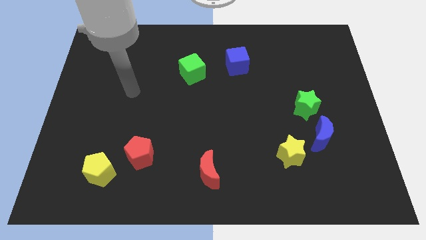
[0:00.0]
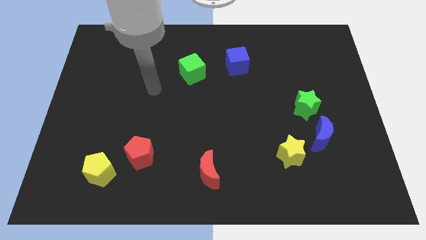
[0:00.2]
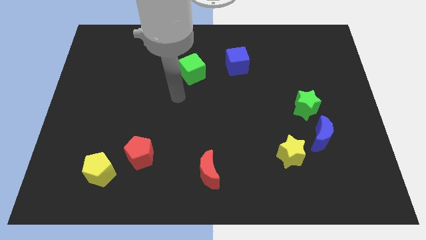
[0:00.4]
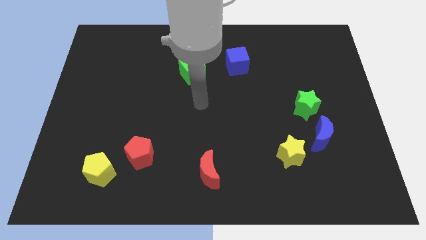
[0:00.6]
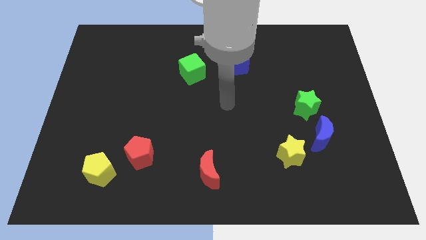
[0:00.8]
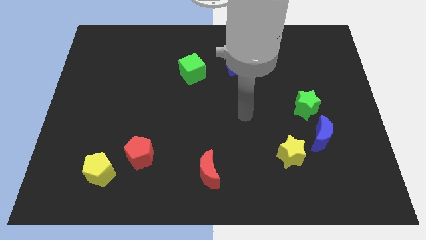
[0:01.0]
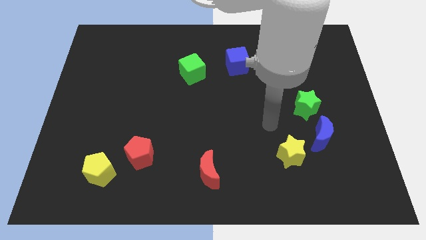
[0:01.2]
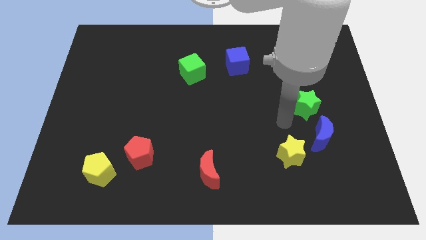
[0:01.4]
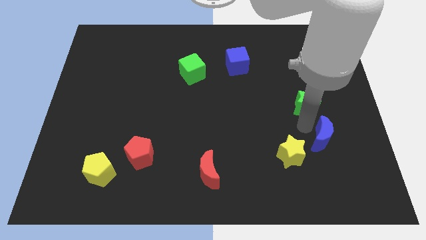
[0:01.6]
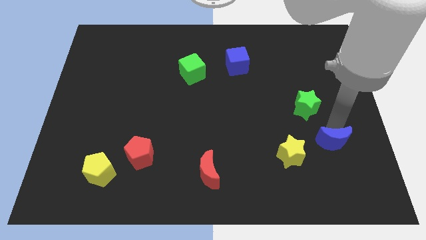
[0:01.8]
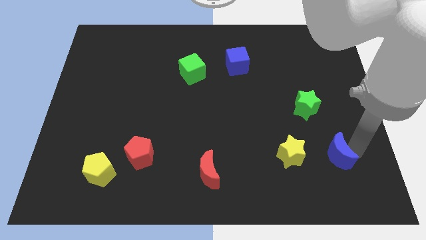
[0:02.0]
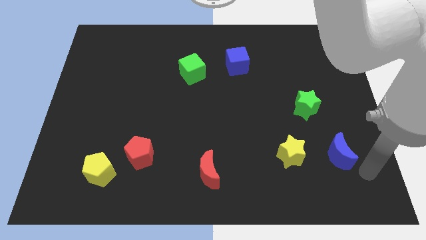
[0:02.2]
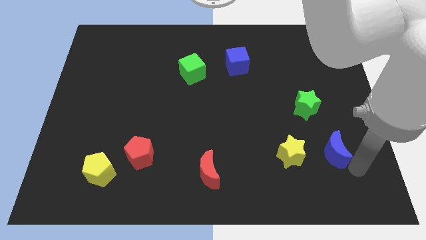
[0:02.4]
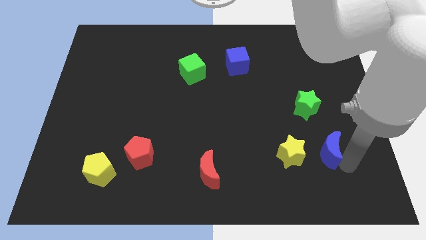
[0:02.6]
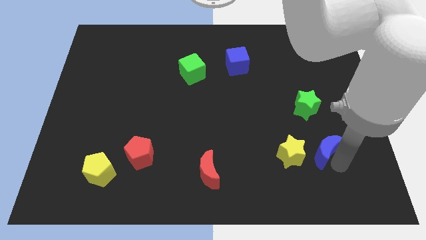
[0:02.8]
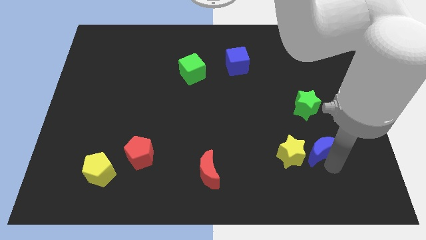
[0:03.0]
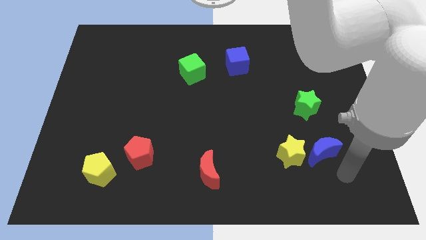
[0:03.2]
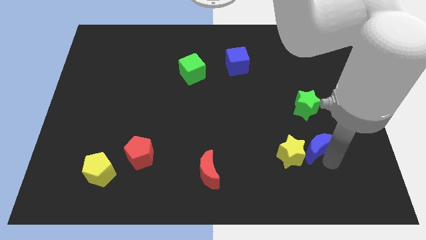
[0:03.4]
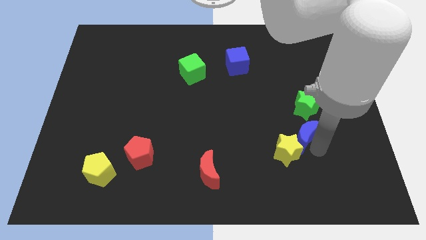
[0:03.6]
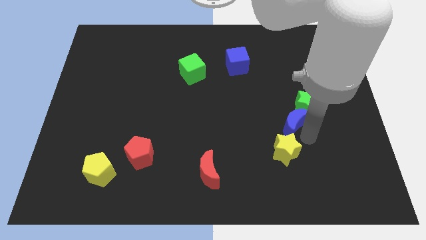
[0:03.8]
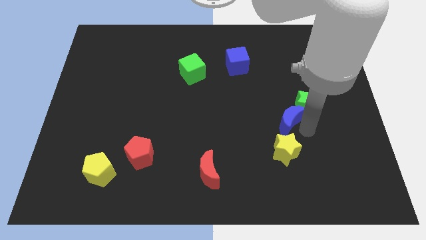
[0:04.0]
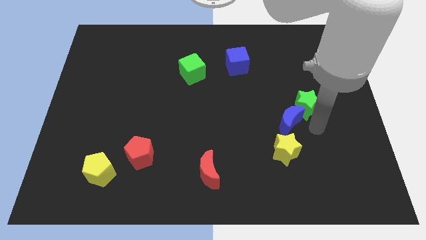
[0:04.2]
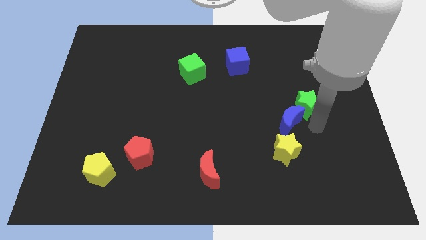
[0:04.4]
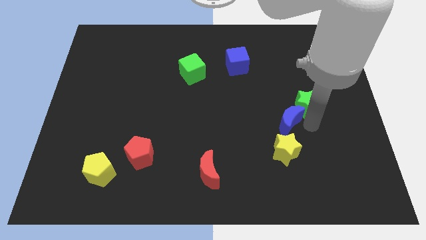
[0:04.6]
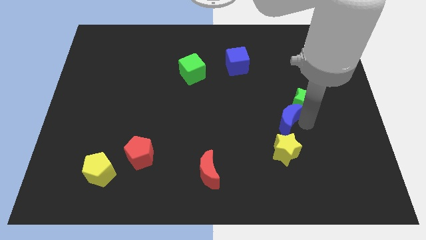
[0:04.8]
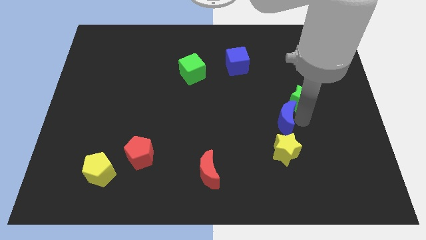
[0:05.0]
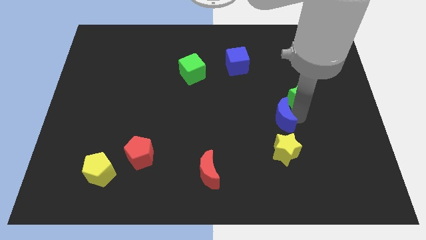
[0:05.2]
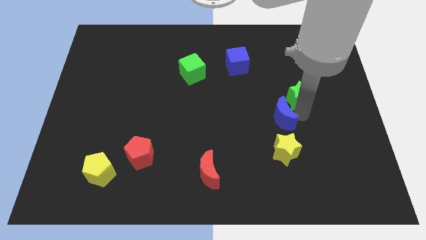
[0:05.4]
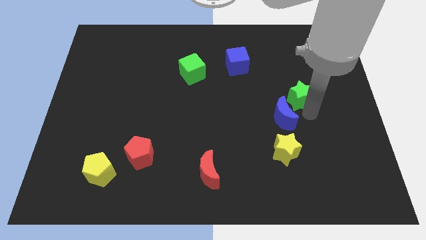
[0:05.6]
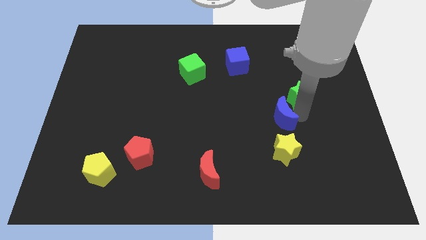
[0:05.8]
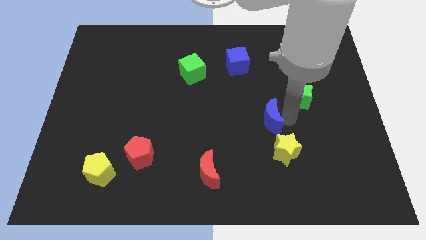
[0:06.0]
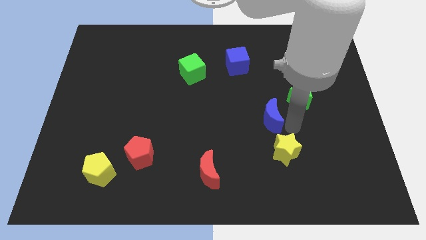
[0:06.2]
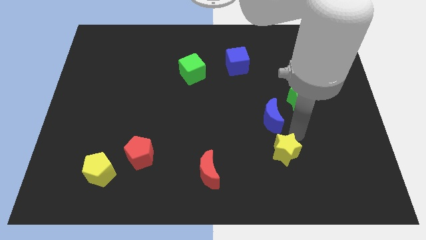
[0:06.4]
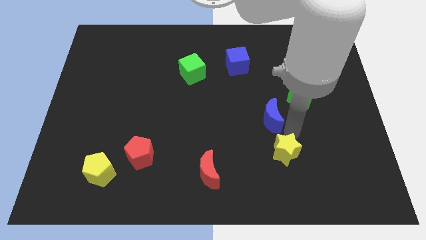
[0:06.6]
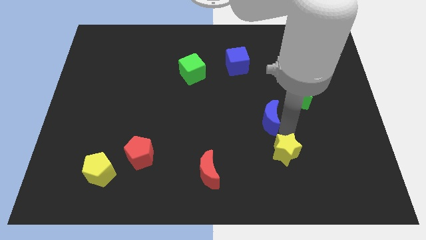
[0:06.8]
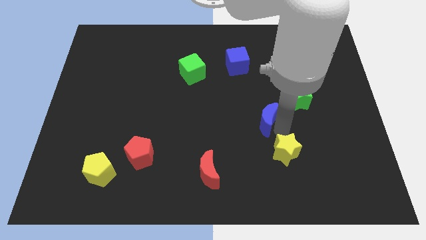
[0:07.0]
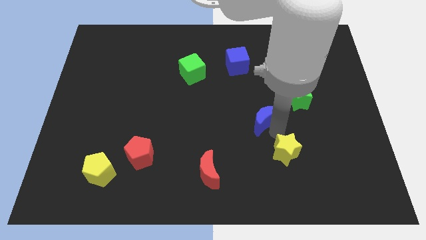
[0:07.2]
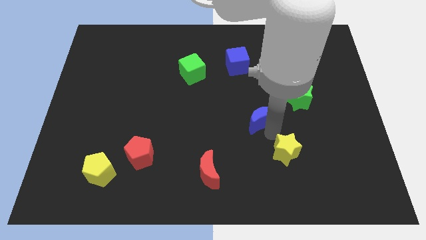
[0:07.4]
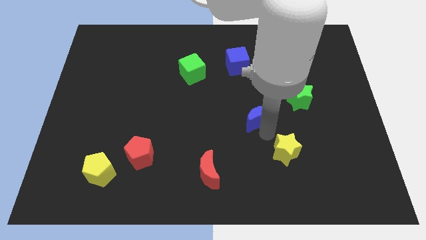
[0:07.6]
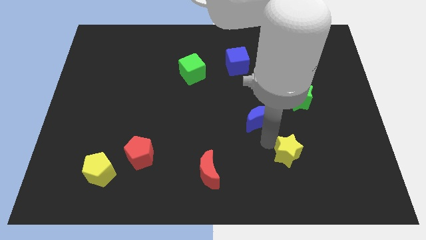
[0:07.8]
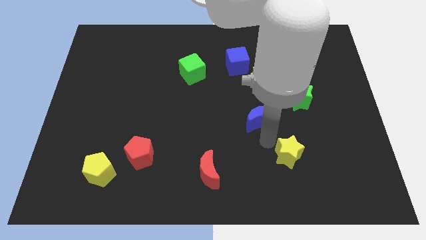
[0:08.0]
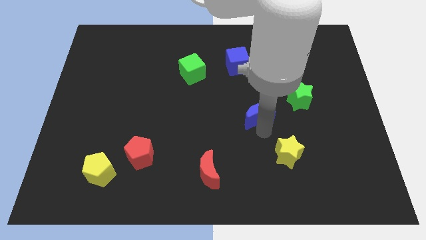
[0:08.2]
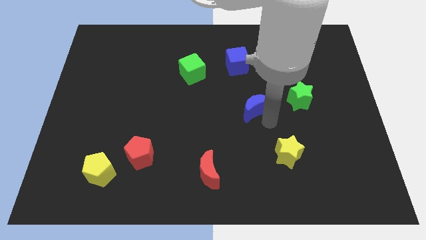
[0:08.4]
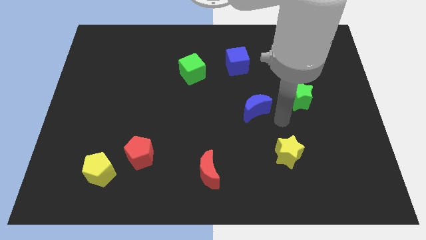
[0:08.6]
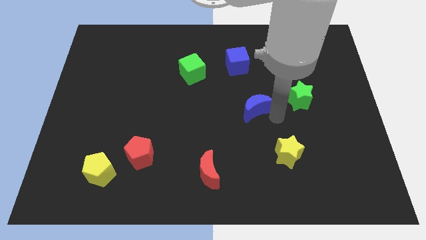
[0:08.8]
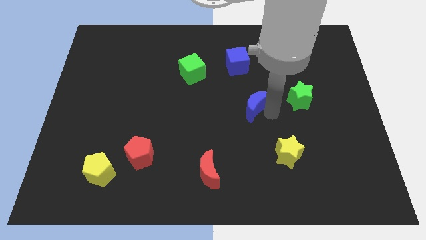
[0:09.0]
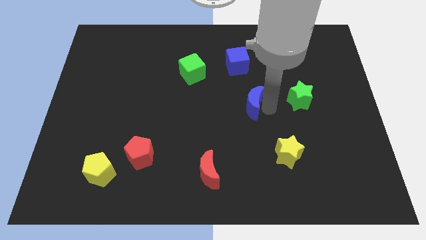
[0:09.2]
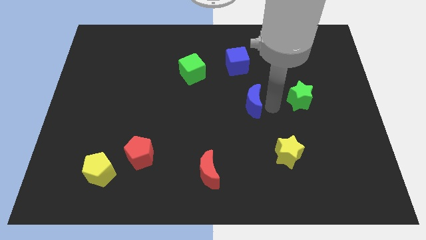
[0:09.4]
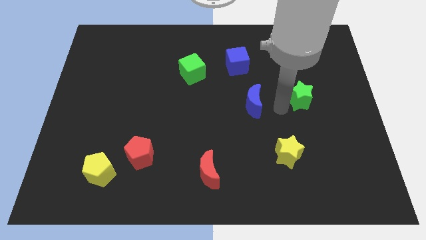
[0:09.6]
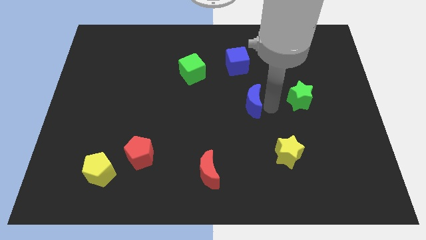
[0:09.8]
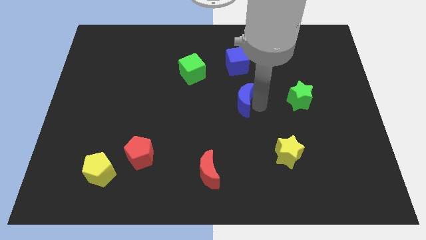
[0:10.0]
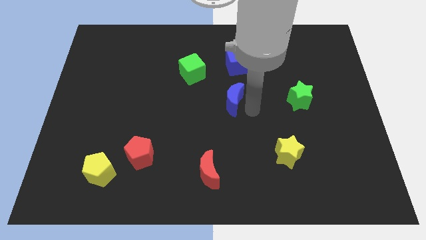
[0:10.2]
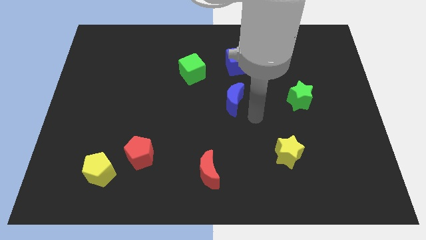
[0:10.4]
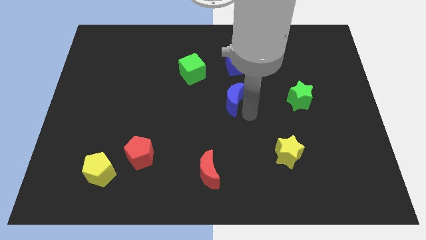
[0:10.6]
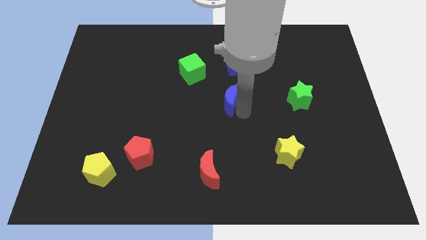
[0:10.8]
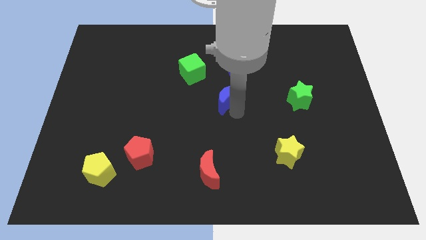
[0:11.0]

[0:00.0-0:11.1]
put the blue moon to the bottom right of the green cube
